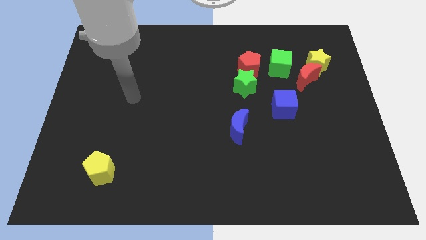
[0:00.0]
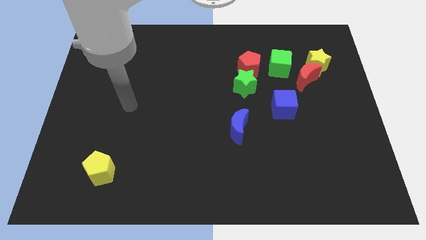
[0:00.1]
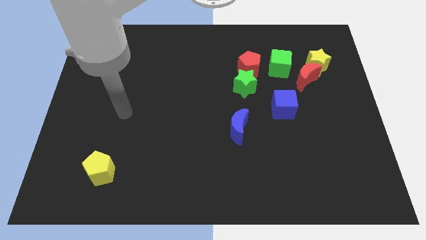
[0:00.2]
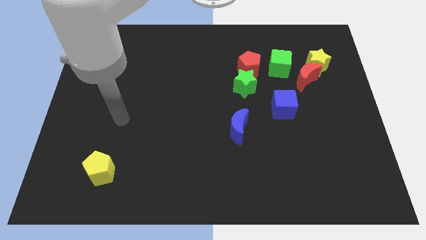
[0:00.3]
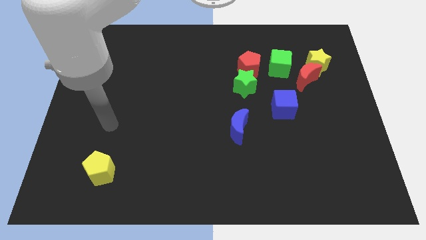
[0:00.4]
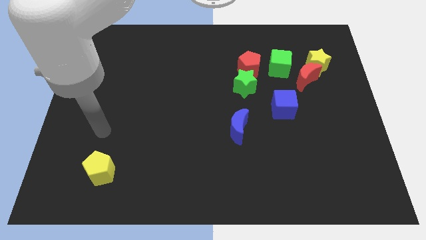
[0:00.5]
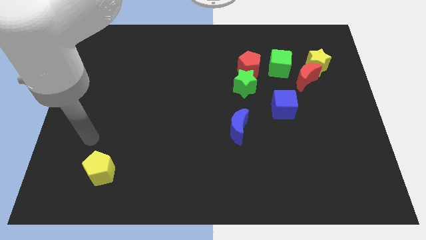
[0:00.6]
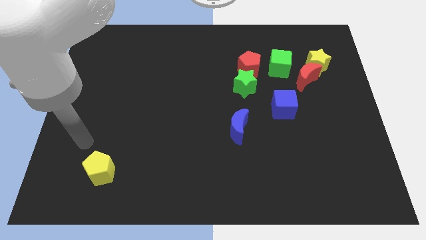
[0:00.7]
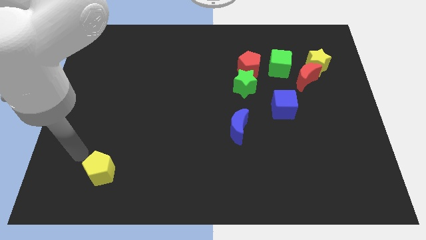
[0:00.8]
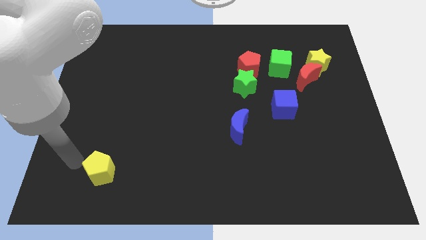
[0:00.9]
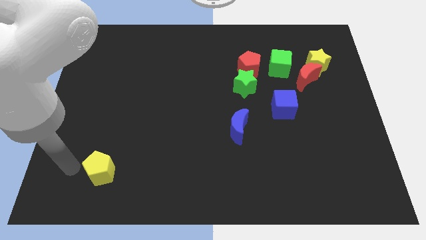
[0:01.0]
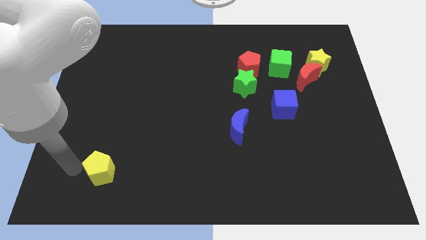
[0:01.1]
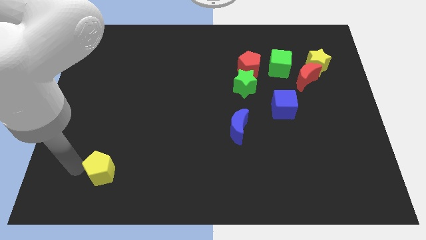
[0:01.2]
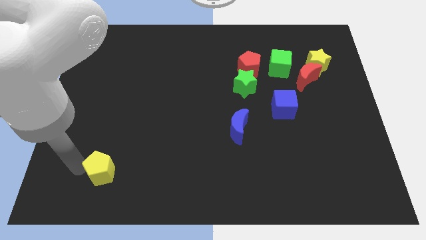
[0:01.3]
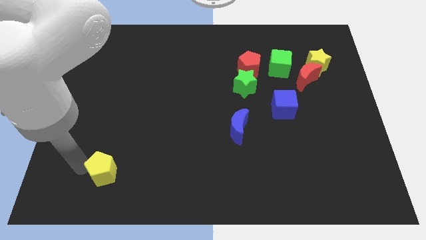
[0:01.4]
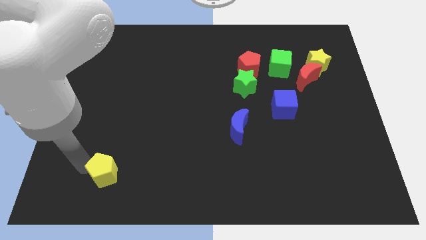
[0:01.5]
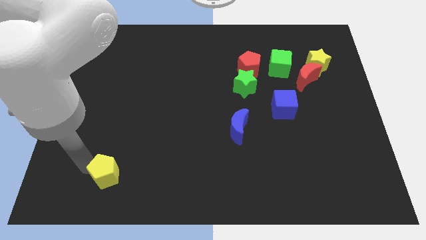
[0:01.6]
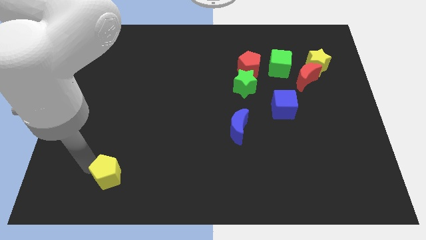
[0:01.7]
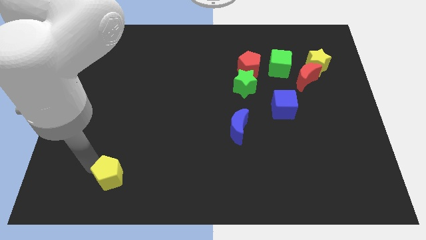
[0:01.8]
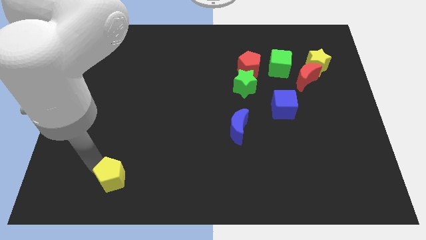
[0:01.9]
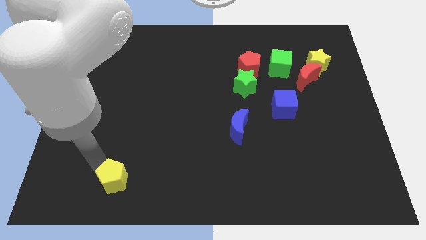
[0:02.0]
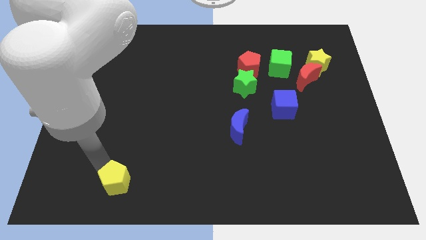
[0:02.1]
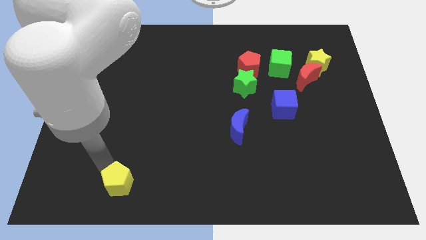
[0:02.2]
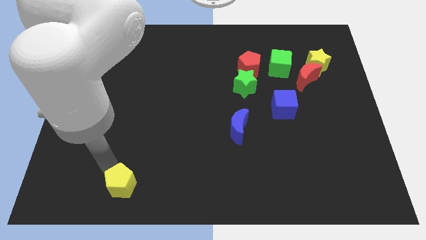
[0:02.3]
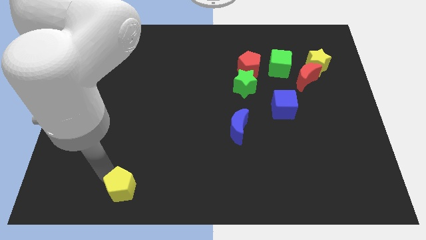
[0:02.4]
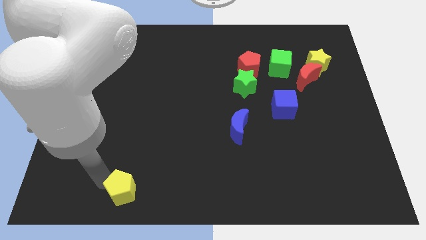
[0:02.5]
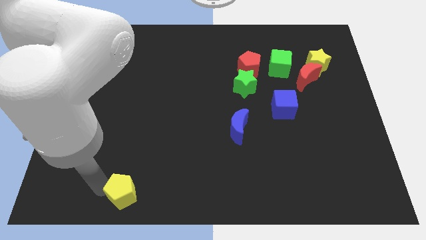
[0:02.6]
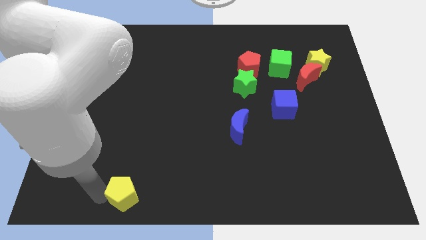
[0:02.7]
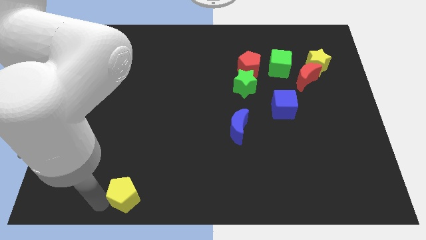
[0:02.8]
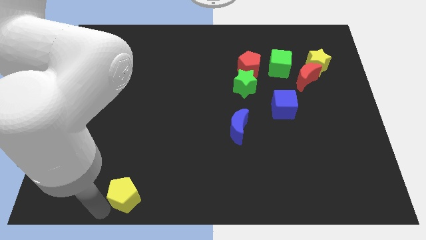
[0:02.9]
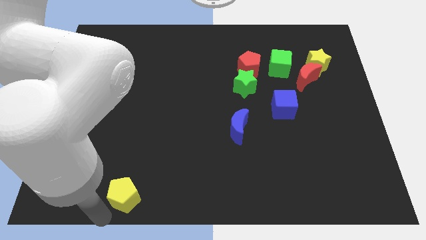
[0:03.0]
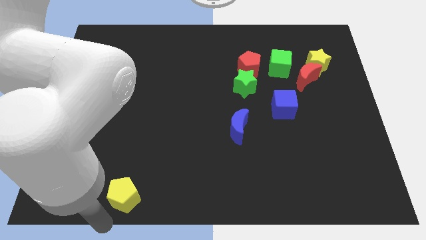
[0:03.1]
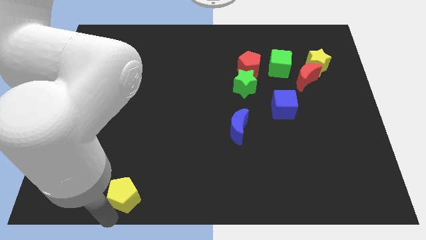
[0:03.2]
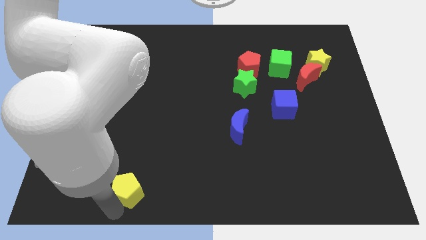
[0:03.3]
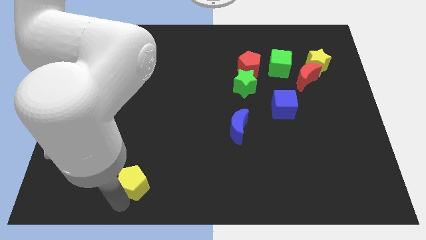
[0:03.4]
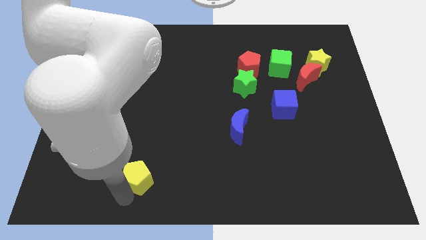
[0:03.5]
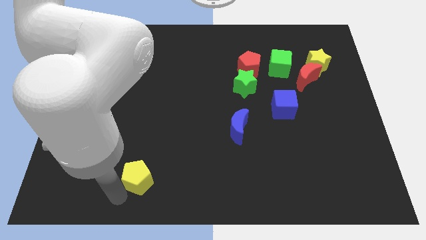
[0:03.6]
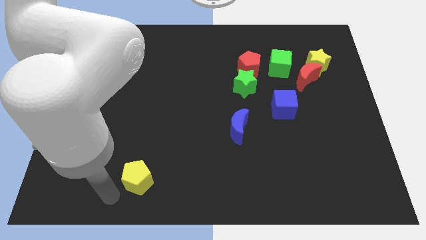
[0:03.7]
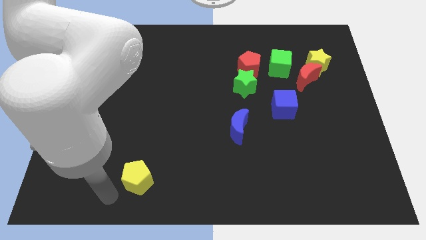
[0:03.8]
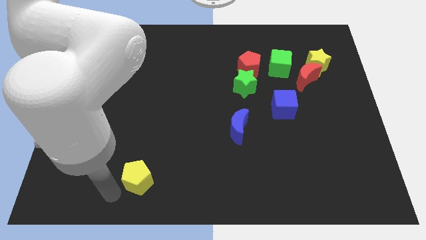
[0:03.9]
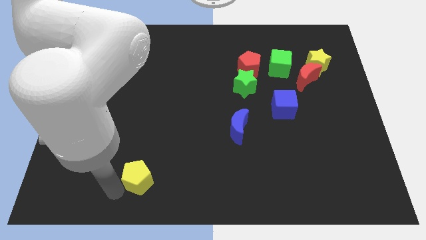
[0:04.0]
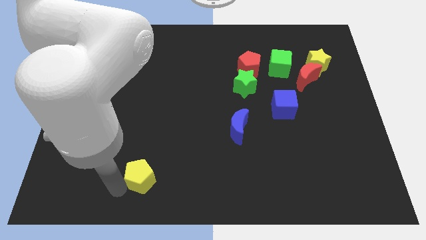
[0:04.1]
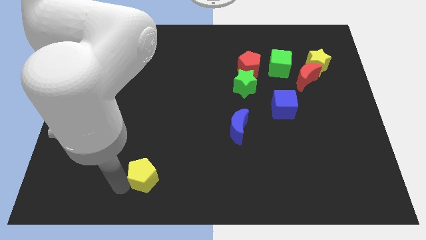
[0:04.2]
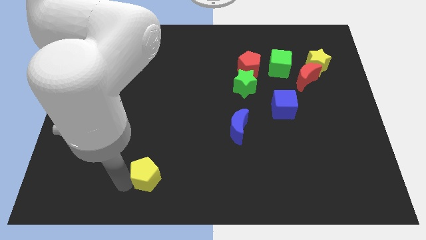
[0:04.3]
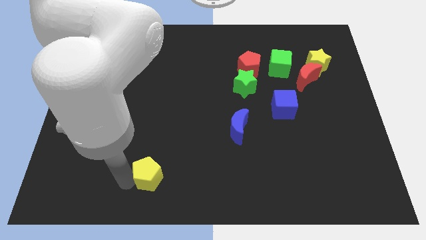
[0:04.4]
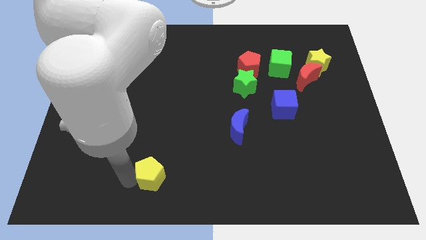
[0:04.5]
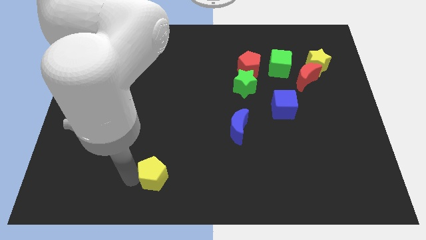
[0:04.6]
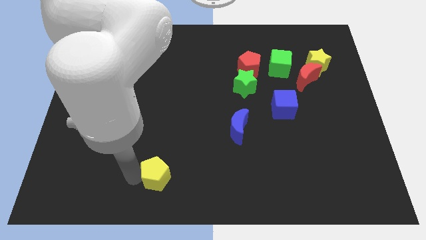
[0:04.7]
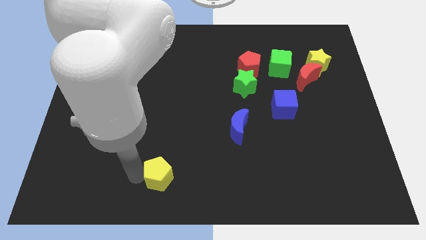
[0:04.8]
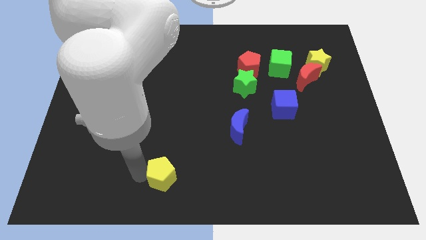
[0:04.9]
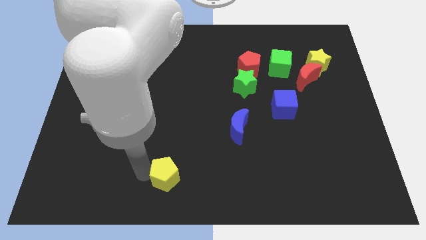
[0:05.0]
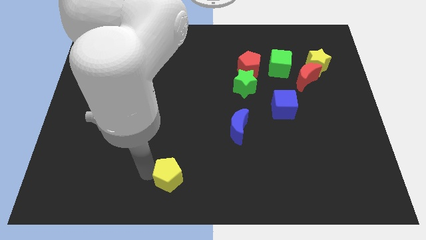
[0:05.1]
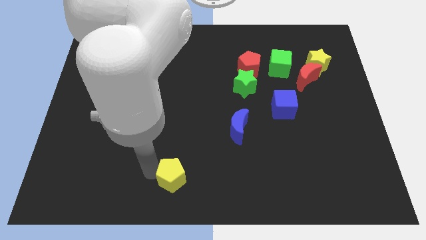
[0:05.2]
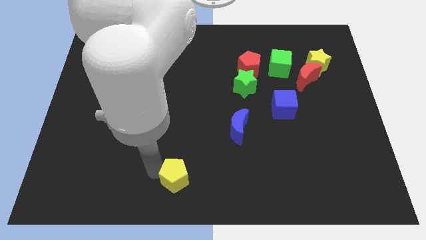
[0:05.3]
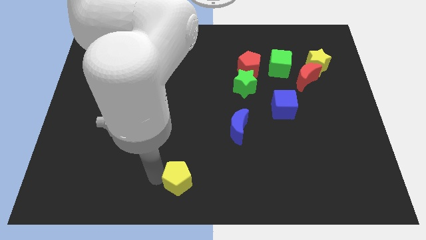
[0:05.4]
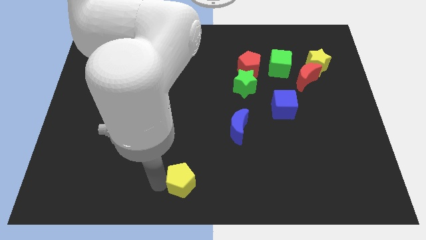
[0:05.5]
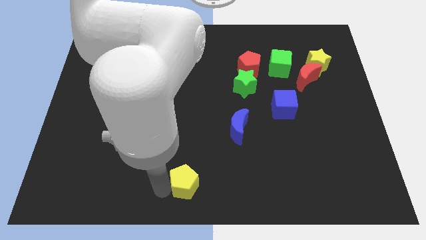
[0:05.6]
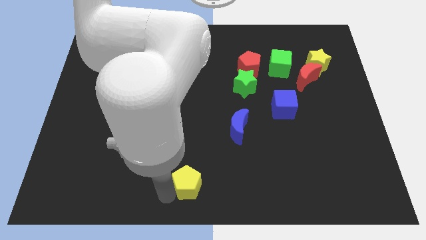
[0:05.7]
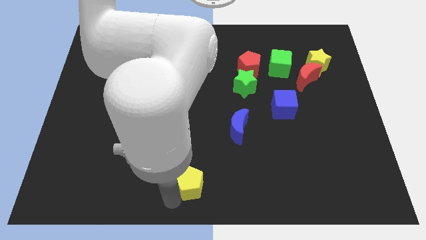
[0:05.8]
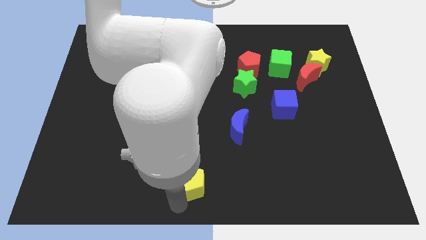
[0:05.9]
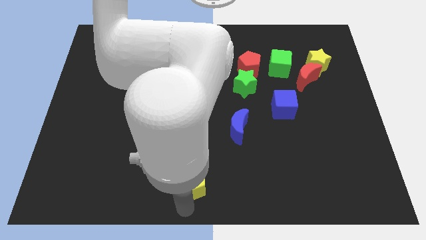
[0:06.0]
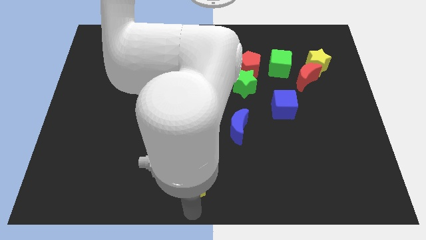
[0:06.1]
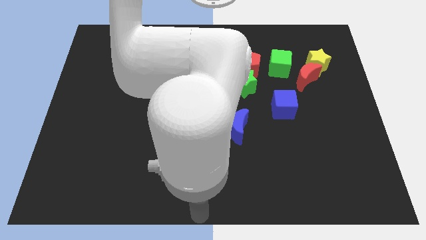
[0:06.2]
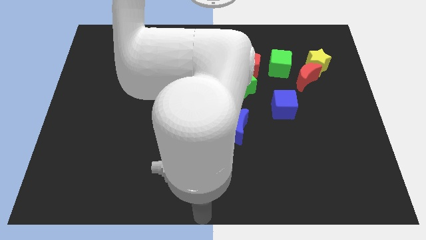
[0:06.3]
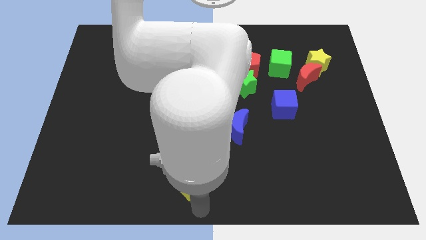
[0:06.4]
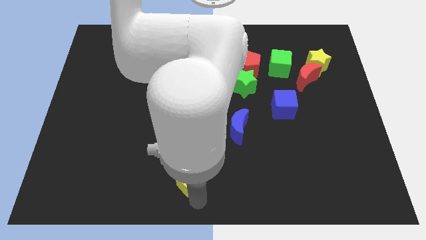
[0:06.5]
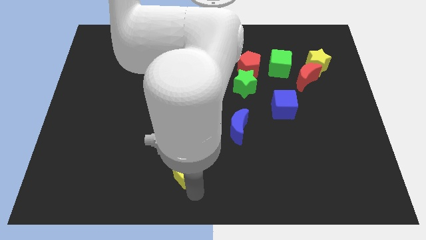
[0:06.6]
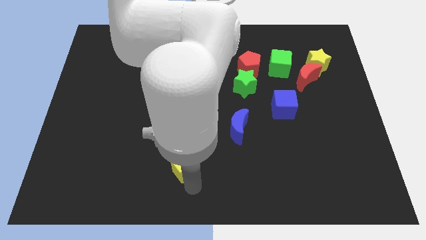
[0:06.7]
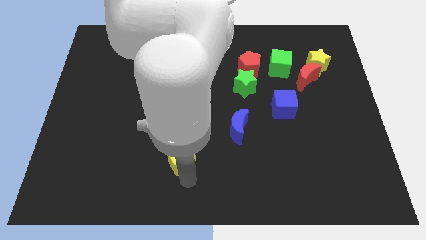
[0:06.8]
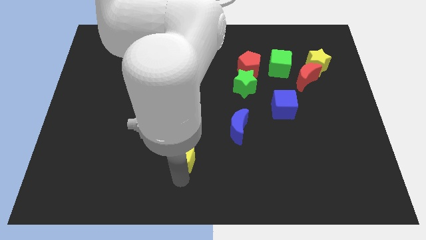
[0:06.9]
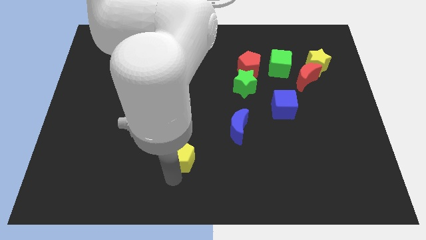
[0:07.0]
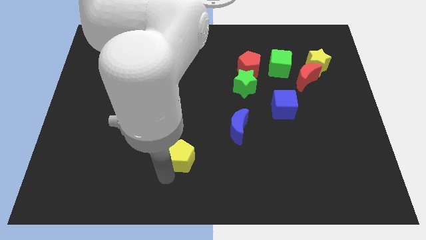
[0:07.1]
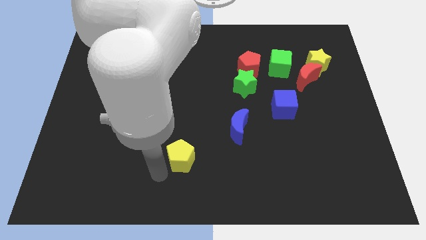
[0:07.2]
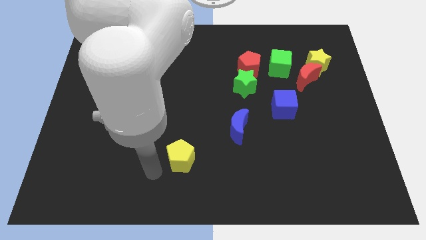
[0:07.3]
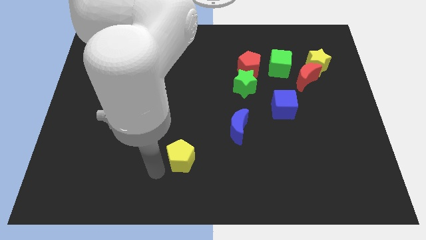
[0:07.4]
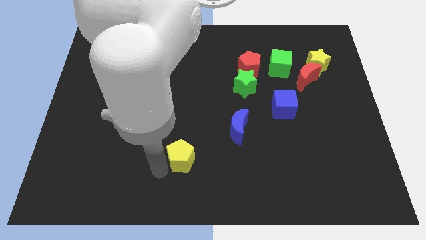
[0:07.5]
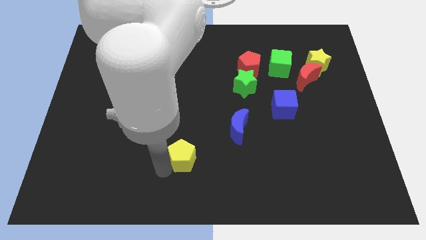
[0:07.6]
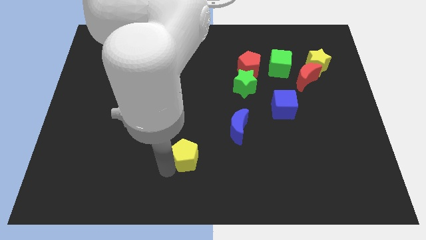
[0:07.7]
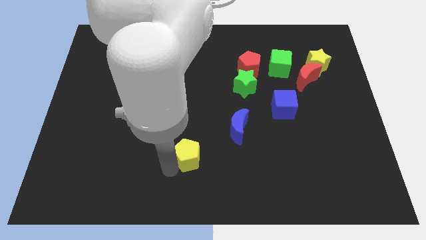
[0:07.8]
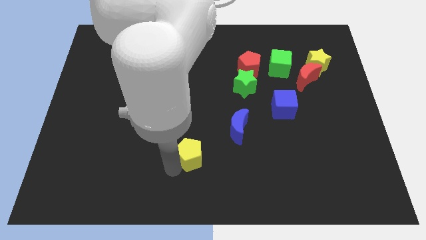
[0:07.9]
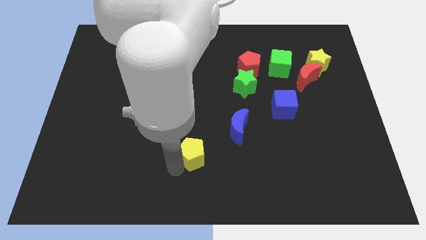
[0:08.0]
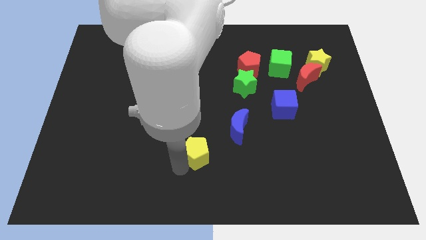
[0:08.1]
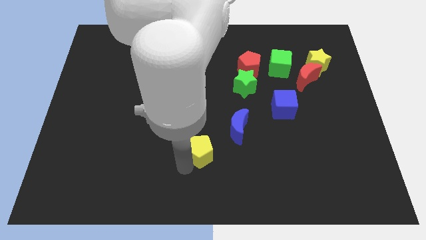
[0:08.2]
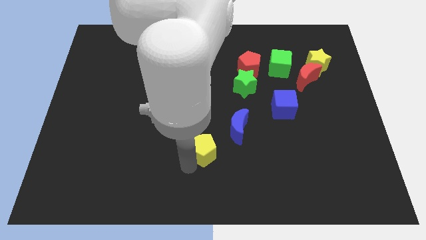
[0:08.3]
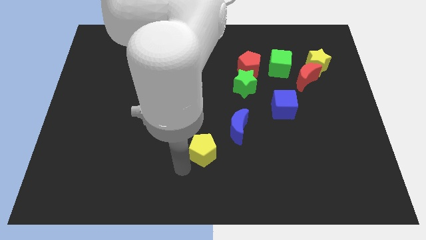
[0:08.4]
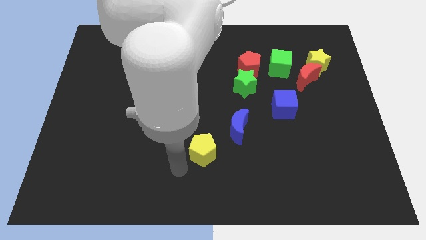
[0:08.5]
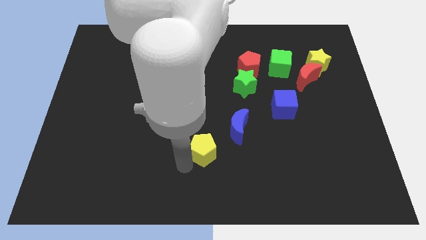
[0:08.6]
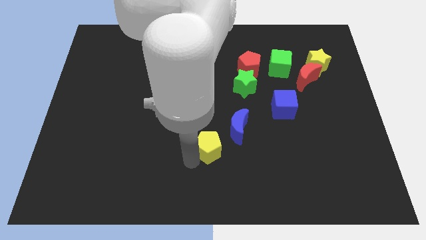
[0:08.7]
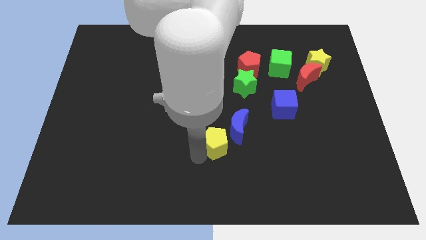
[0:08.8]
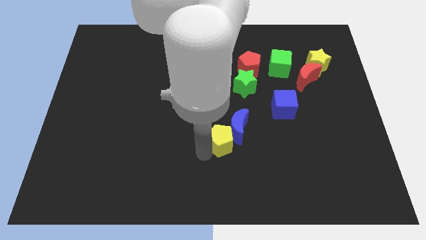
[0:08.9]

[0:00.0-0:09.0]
put the yellow pentagon next to the blue moon
